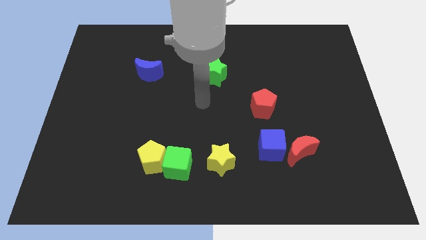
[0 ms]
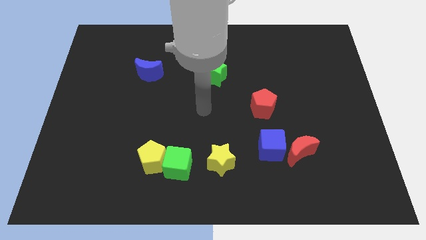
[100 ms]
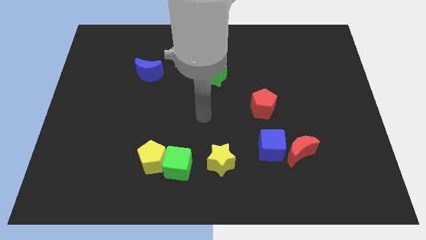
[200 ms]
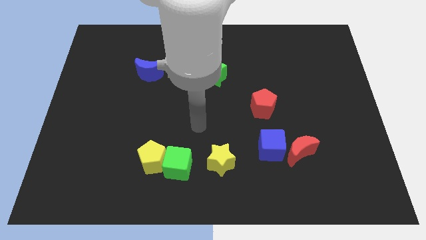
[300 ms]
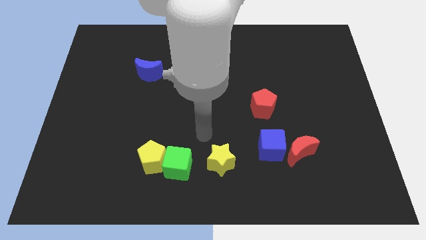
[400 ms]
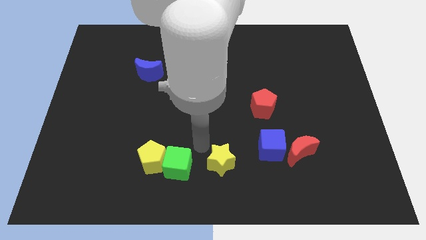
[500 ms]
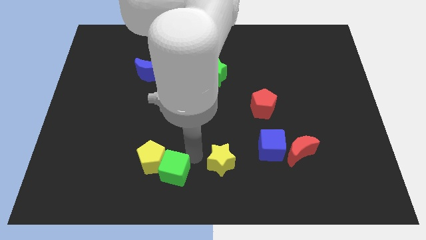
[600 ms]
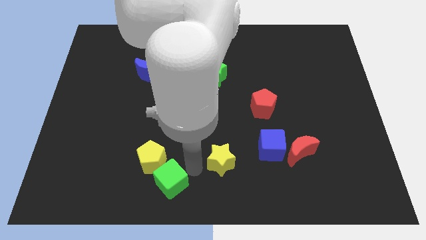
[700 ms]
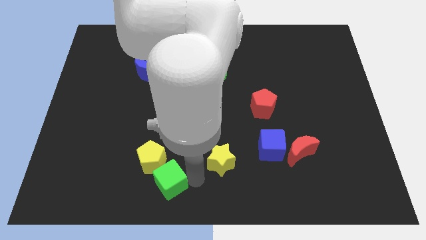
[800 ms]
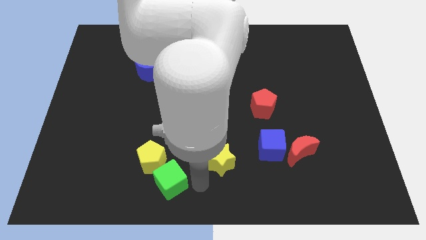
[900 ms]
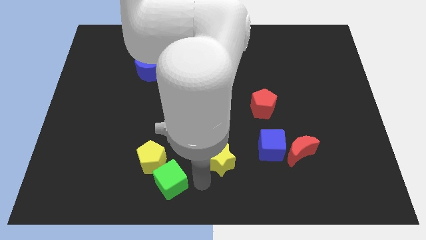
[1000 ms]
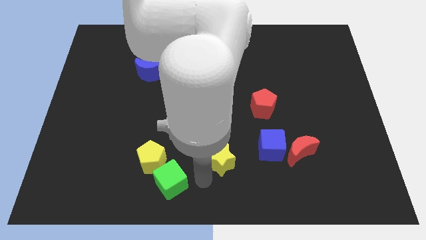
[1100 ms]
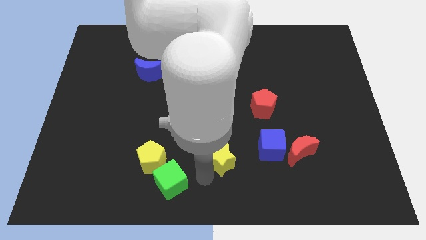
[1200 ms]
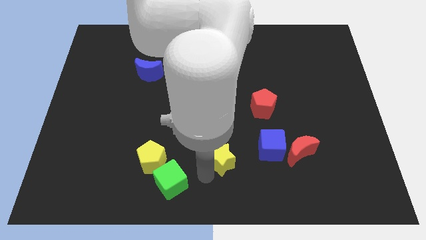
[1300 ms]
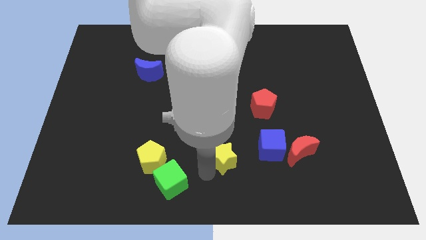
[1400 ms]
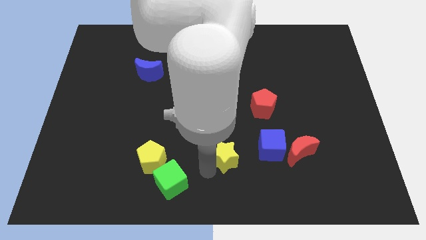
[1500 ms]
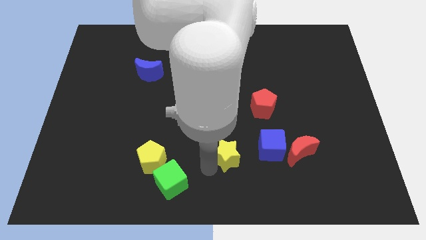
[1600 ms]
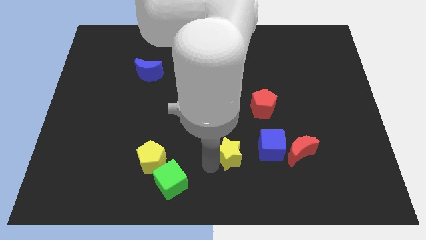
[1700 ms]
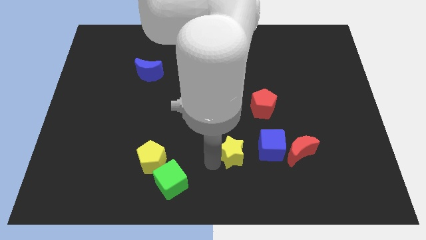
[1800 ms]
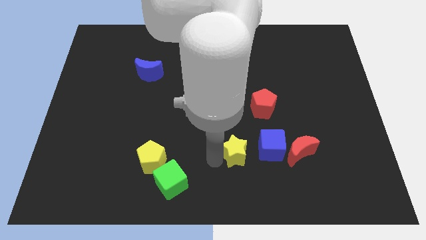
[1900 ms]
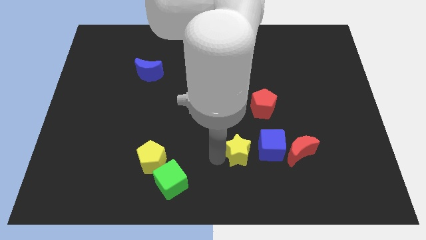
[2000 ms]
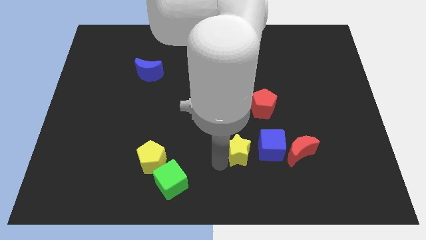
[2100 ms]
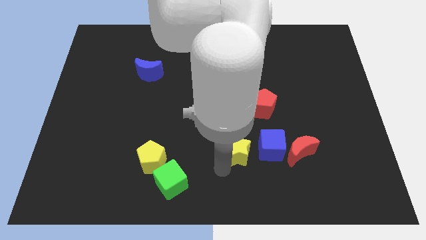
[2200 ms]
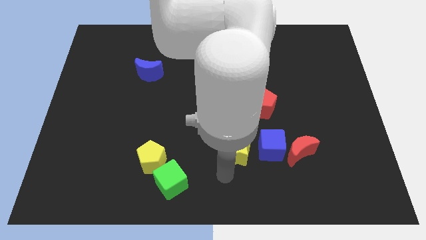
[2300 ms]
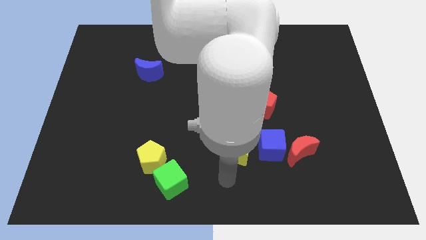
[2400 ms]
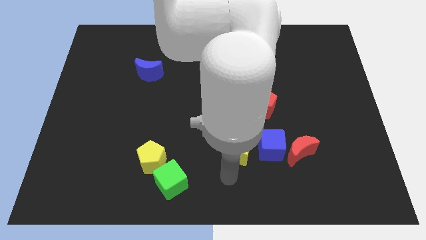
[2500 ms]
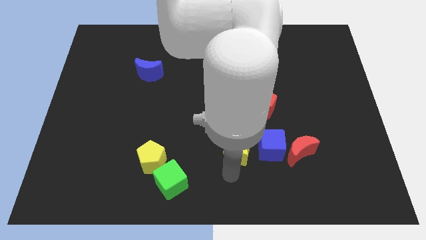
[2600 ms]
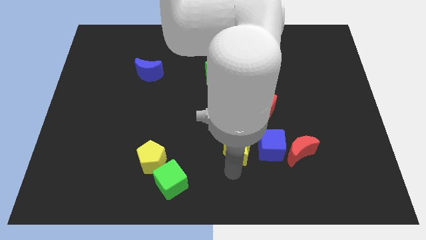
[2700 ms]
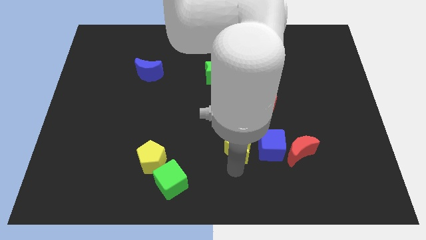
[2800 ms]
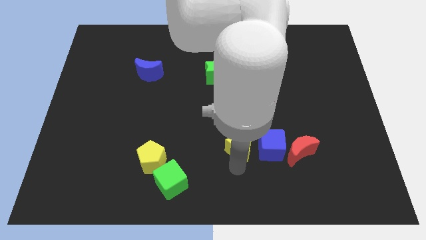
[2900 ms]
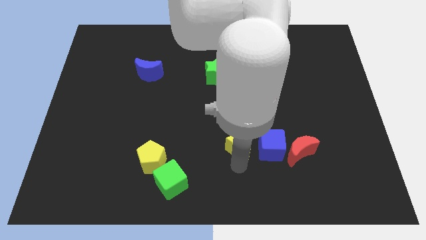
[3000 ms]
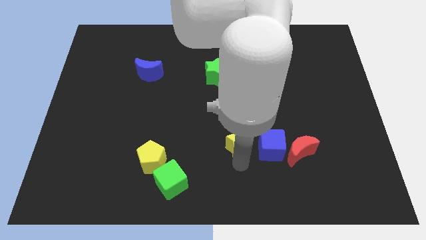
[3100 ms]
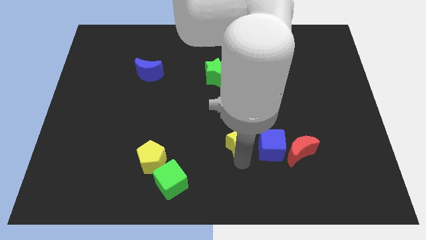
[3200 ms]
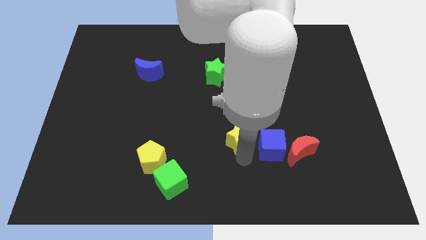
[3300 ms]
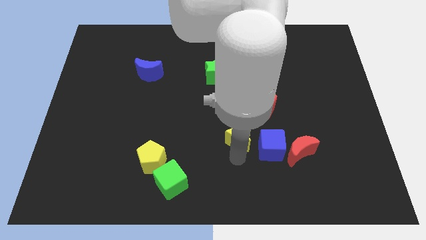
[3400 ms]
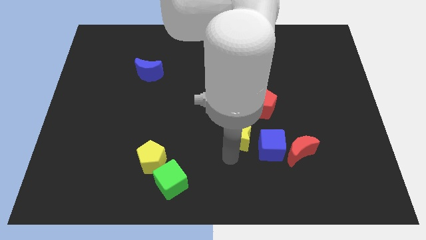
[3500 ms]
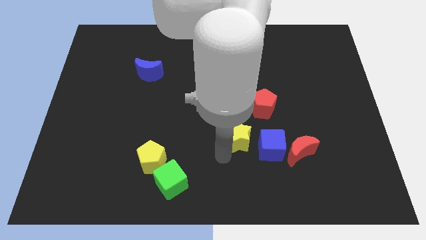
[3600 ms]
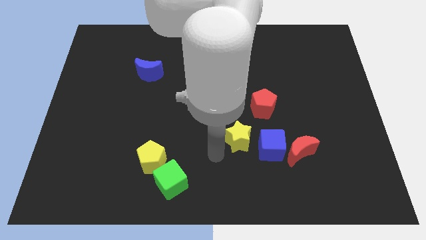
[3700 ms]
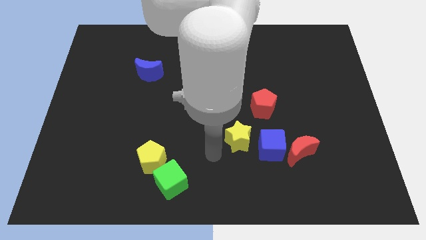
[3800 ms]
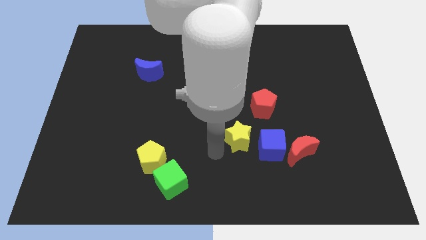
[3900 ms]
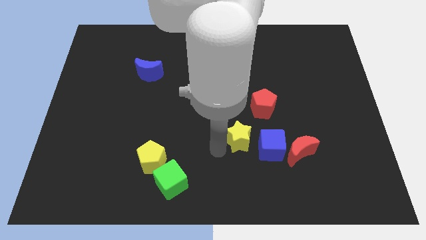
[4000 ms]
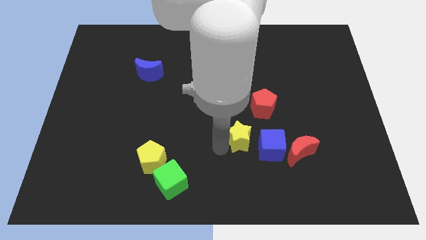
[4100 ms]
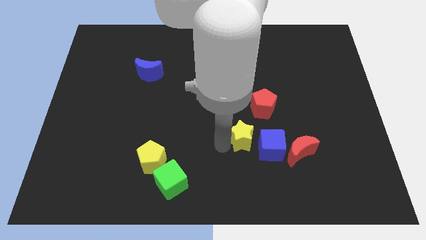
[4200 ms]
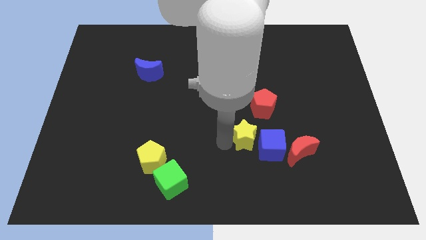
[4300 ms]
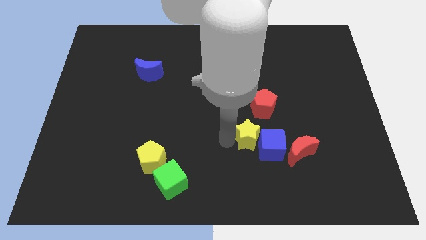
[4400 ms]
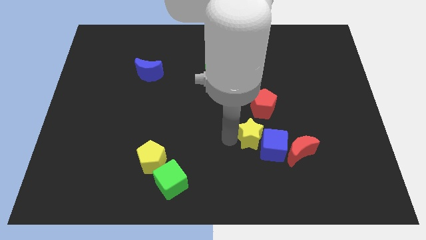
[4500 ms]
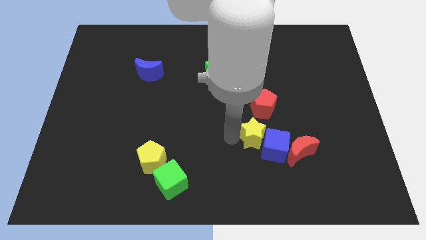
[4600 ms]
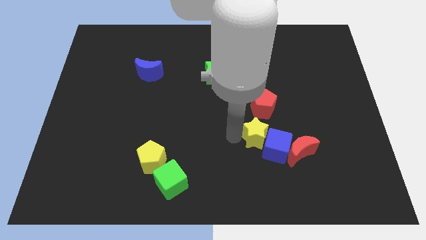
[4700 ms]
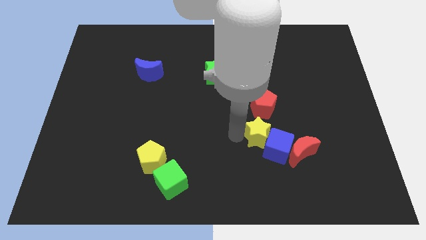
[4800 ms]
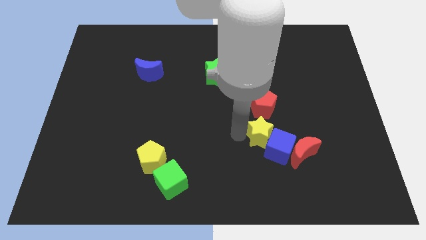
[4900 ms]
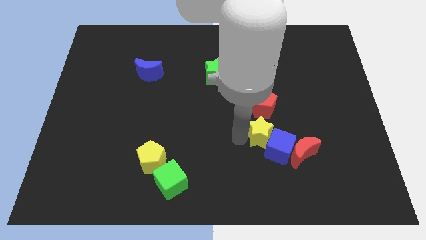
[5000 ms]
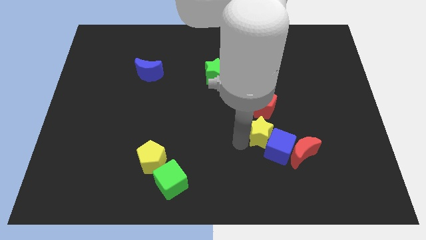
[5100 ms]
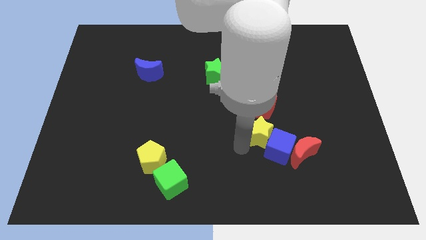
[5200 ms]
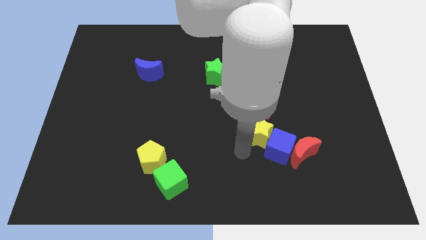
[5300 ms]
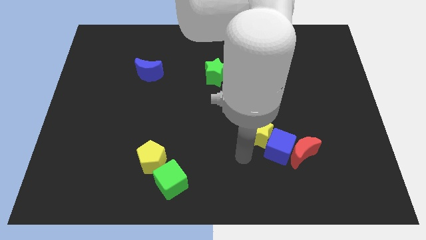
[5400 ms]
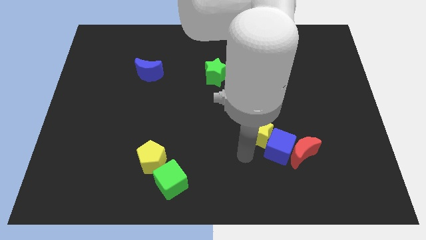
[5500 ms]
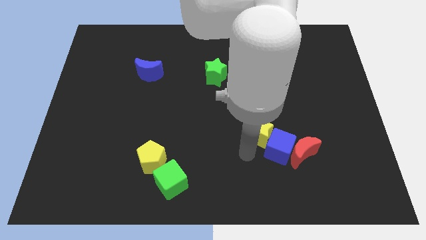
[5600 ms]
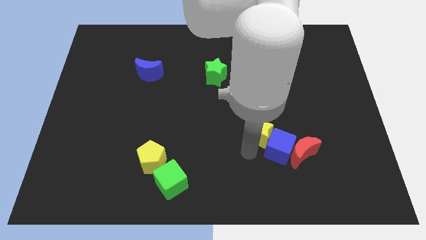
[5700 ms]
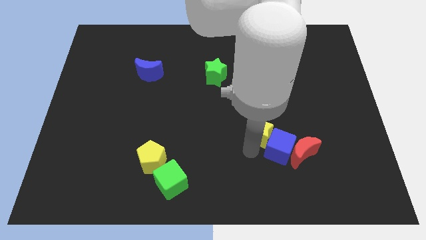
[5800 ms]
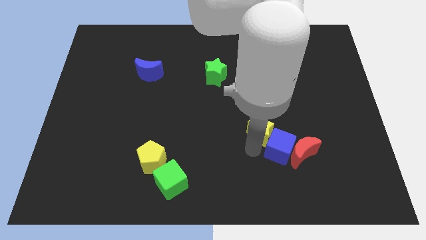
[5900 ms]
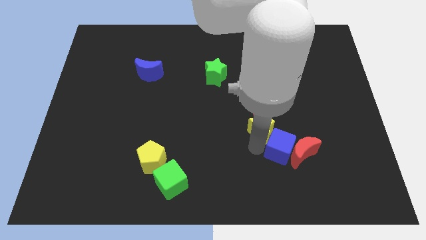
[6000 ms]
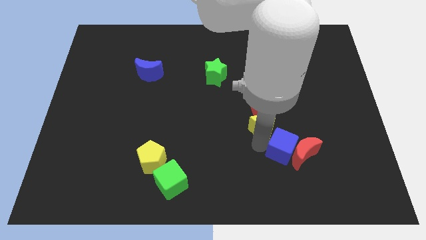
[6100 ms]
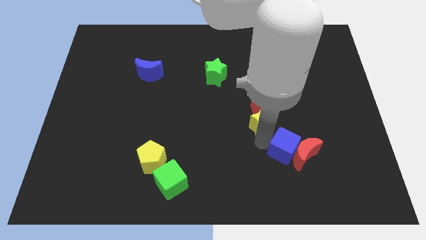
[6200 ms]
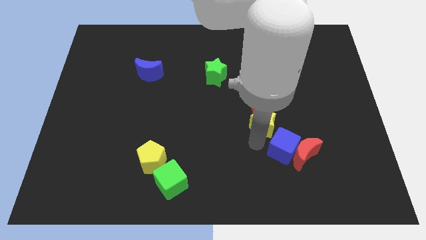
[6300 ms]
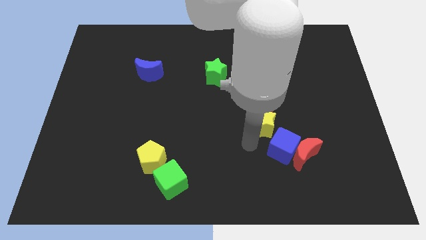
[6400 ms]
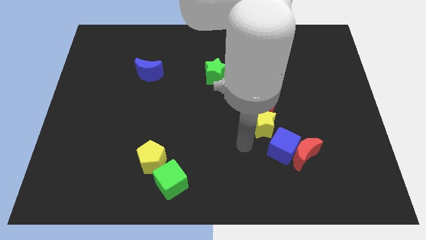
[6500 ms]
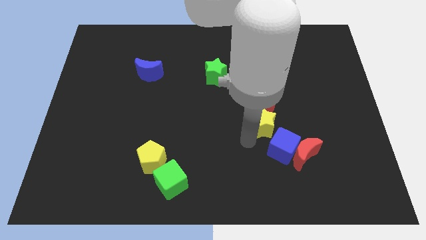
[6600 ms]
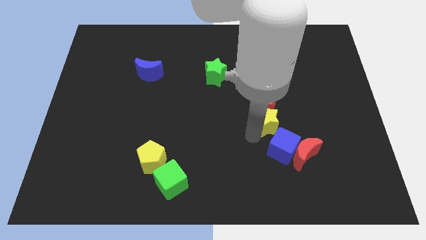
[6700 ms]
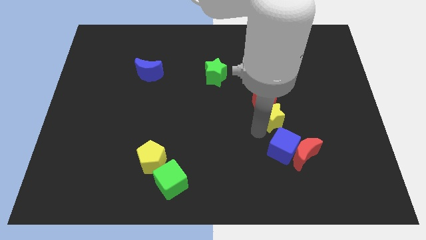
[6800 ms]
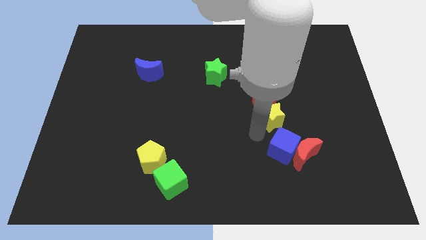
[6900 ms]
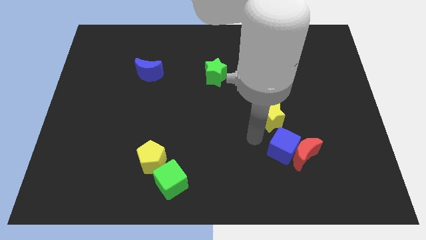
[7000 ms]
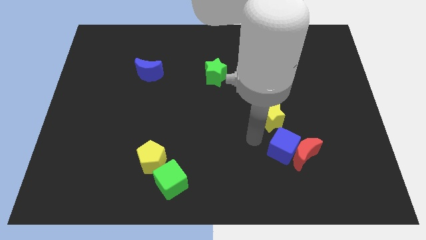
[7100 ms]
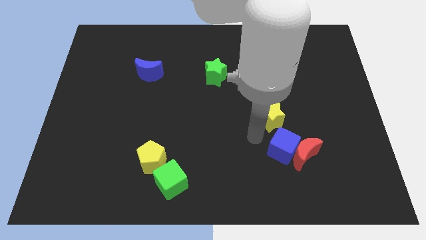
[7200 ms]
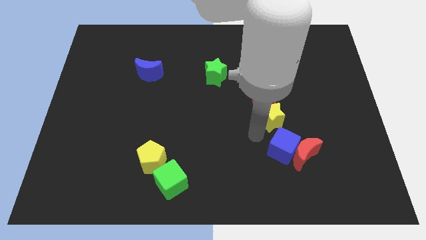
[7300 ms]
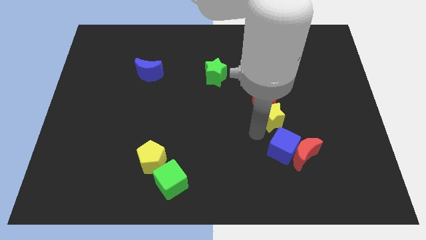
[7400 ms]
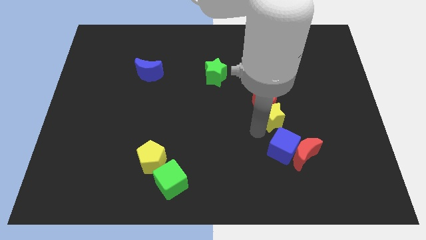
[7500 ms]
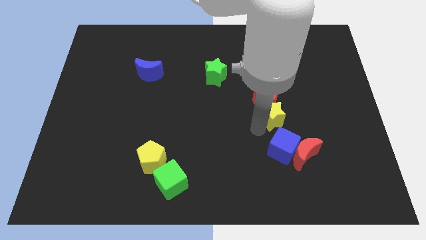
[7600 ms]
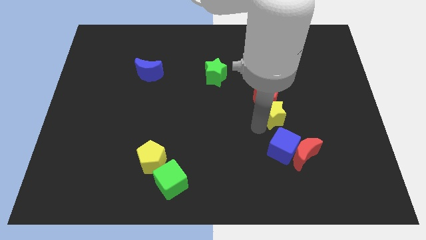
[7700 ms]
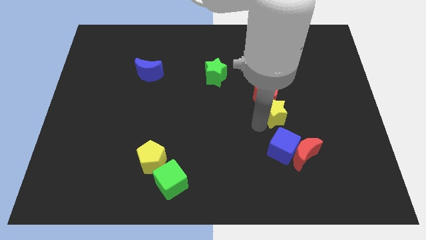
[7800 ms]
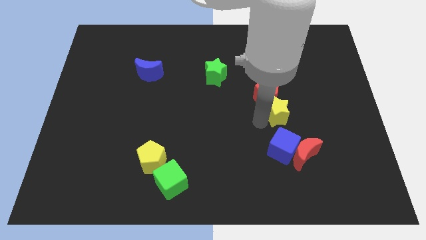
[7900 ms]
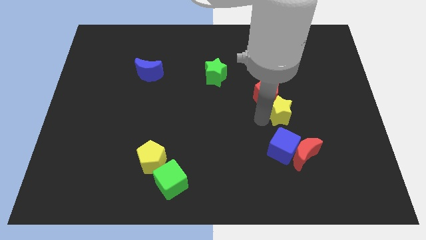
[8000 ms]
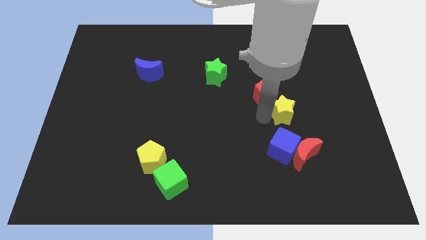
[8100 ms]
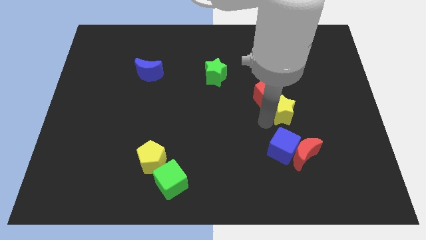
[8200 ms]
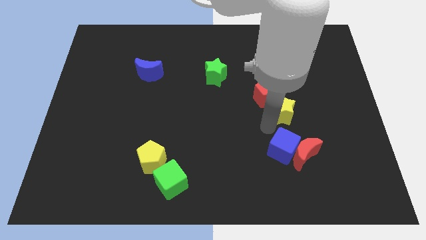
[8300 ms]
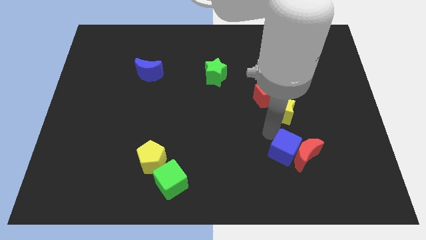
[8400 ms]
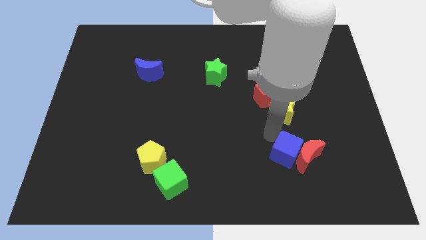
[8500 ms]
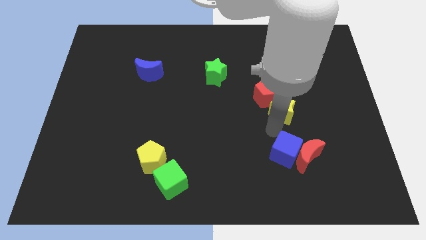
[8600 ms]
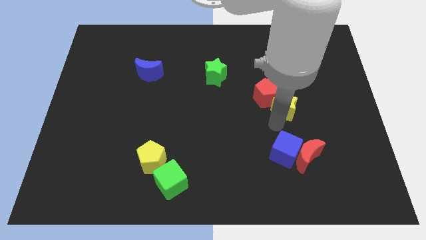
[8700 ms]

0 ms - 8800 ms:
push the yellow star up and then right
